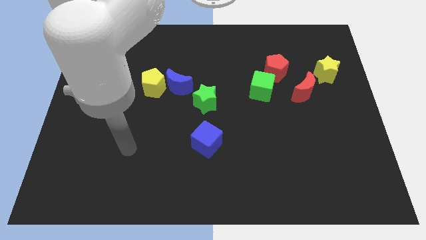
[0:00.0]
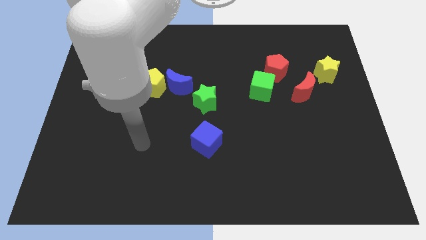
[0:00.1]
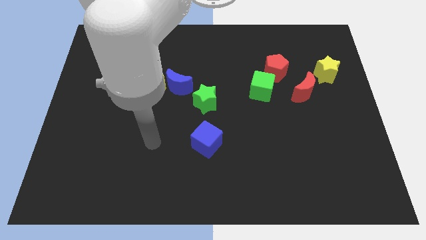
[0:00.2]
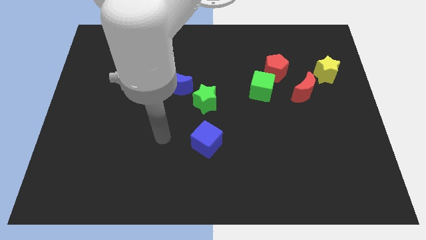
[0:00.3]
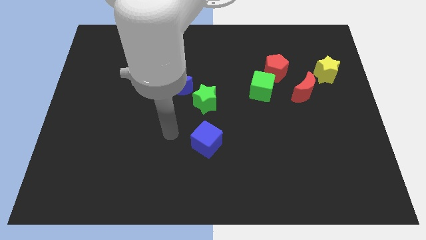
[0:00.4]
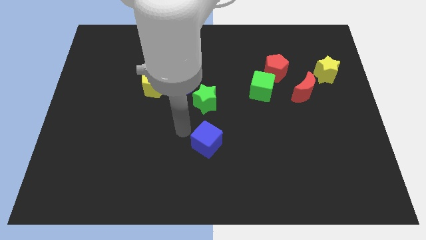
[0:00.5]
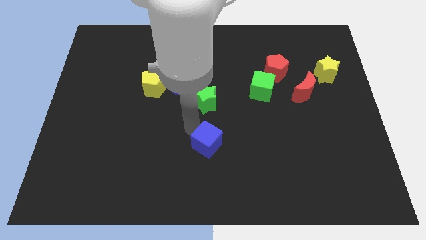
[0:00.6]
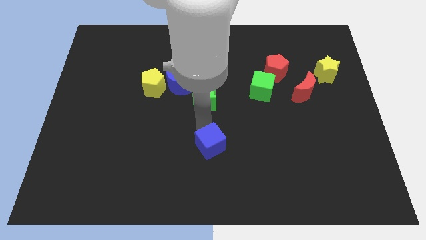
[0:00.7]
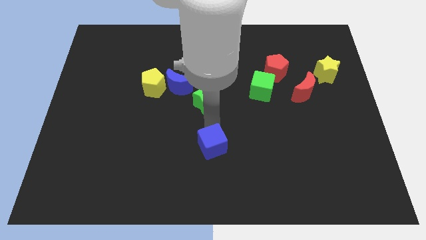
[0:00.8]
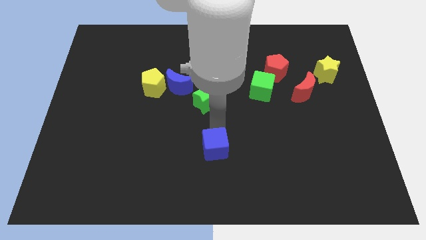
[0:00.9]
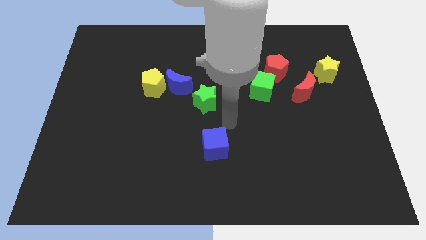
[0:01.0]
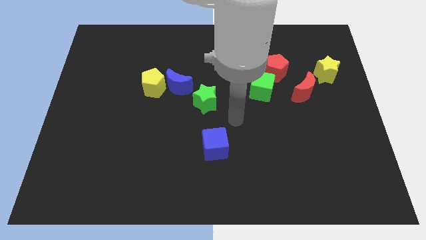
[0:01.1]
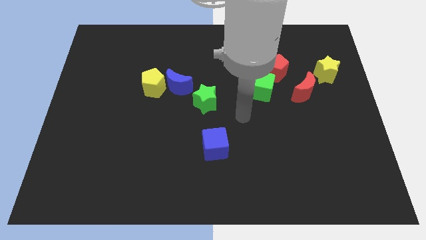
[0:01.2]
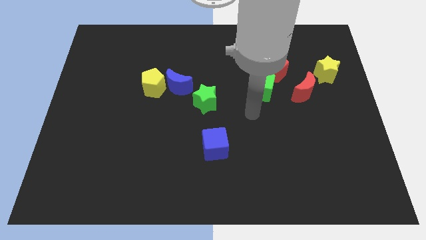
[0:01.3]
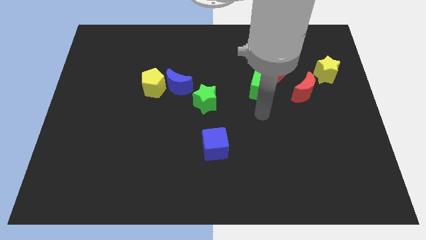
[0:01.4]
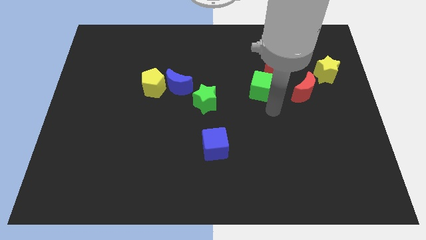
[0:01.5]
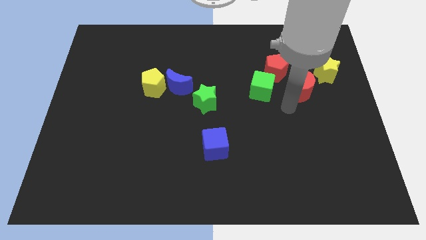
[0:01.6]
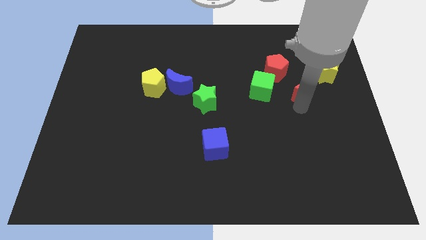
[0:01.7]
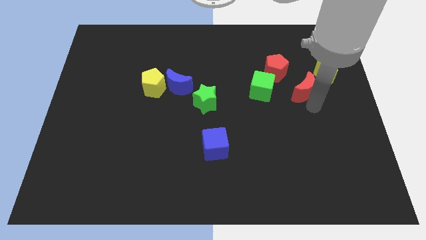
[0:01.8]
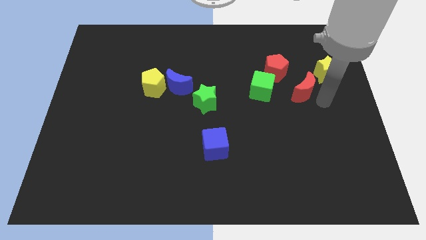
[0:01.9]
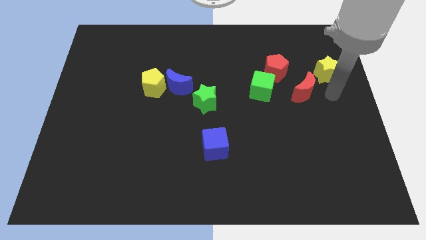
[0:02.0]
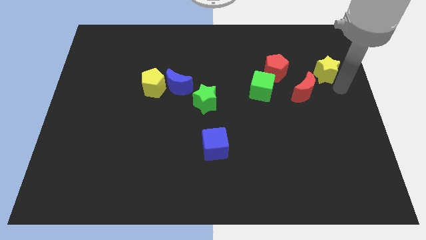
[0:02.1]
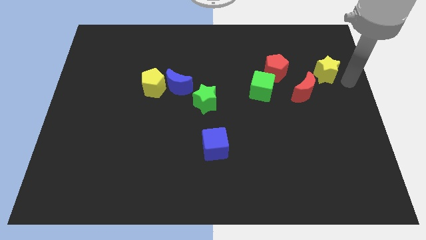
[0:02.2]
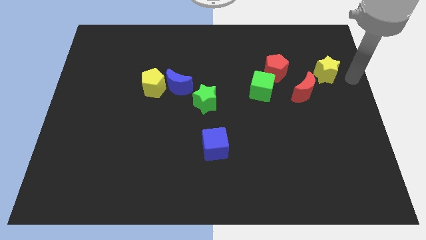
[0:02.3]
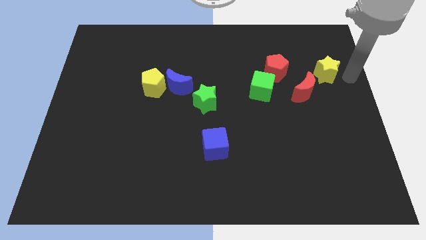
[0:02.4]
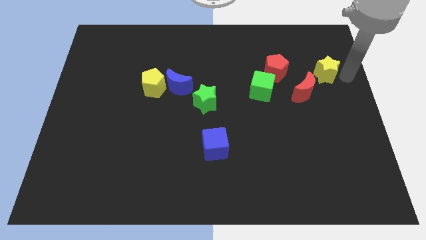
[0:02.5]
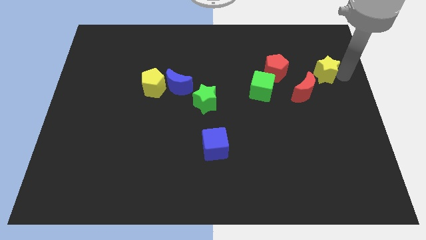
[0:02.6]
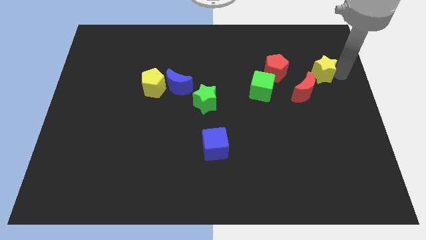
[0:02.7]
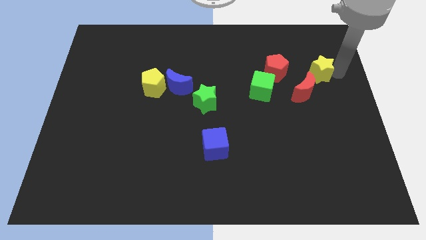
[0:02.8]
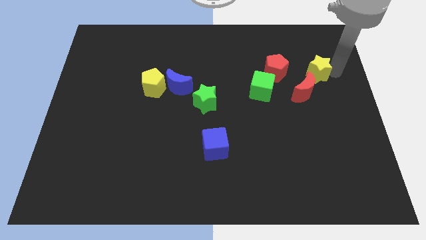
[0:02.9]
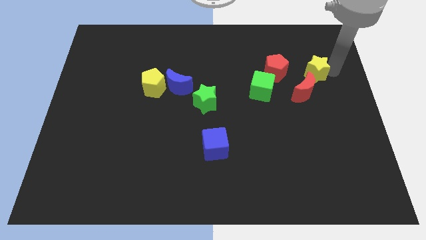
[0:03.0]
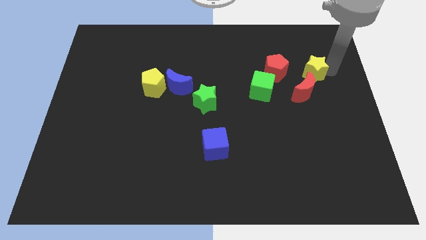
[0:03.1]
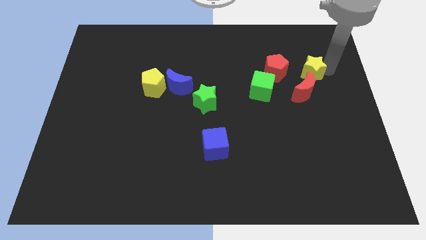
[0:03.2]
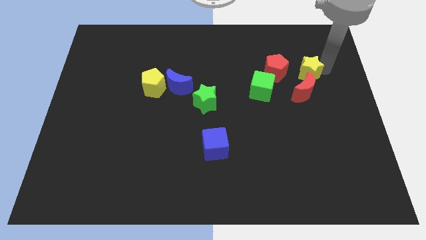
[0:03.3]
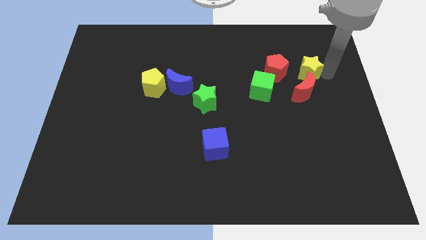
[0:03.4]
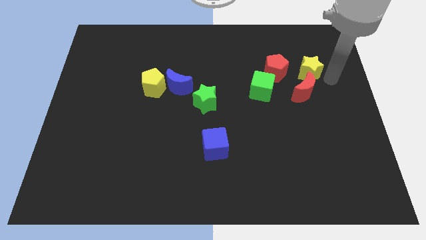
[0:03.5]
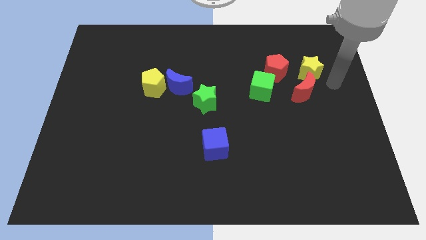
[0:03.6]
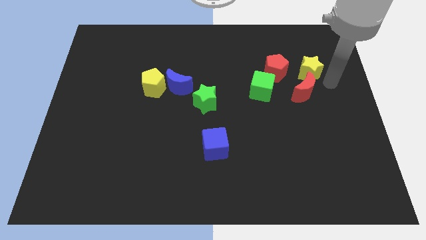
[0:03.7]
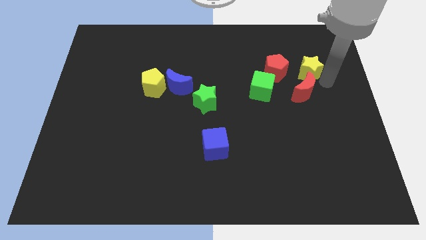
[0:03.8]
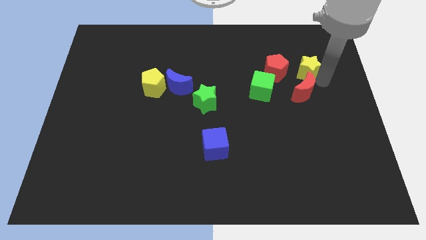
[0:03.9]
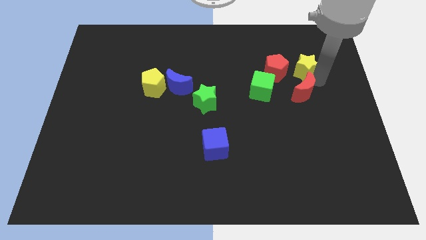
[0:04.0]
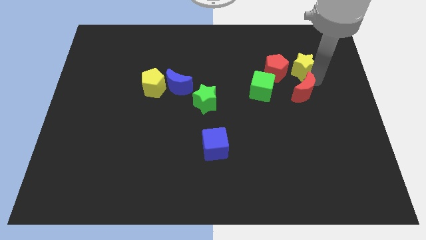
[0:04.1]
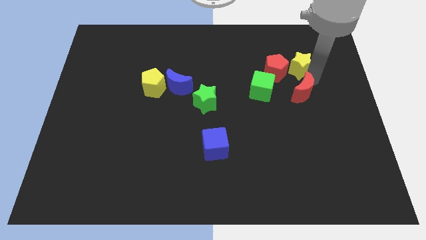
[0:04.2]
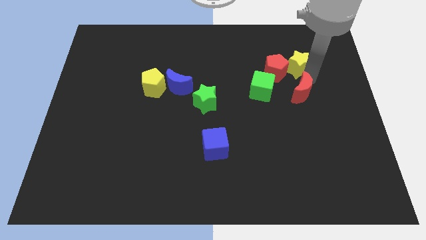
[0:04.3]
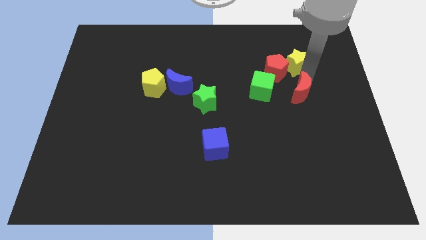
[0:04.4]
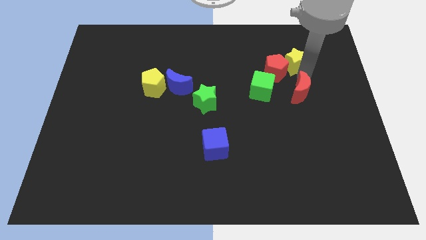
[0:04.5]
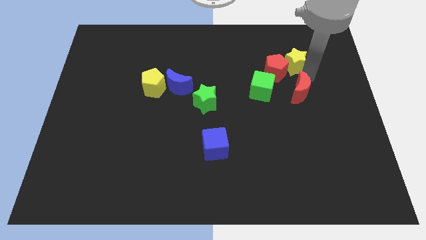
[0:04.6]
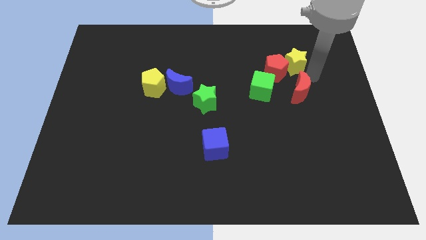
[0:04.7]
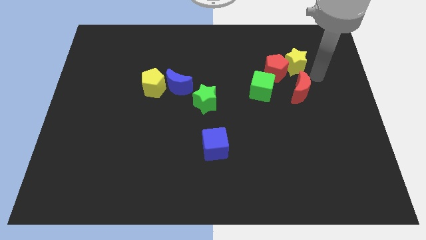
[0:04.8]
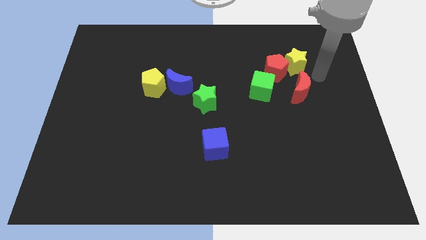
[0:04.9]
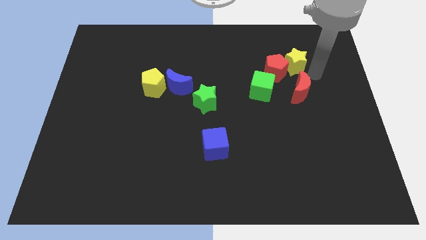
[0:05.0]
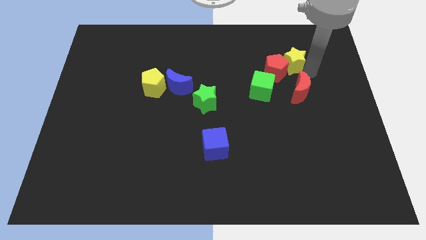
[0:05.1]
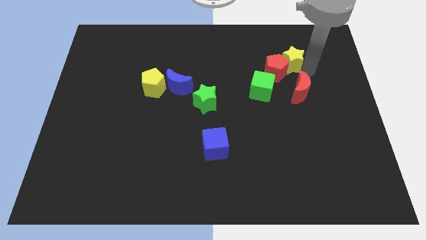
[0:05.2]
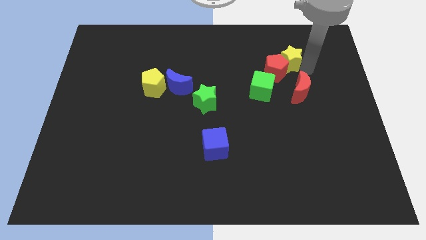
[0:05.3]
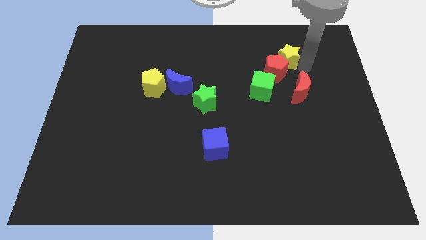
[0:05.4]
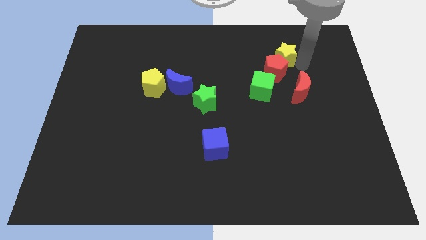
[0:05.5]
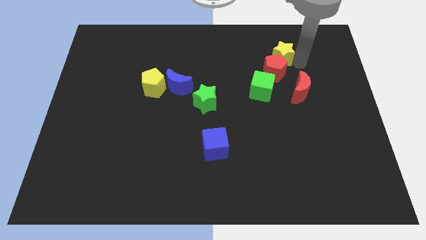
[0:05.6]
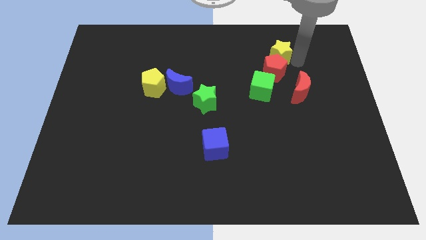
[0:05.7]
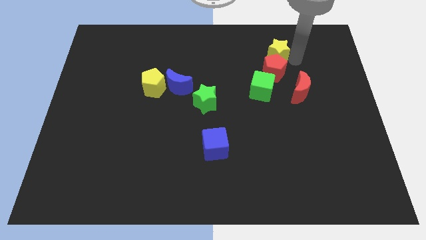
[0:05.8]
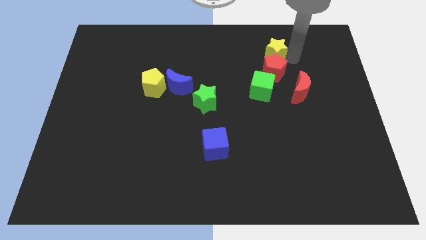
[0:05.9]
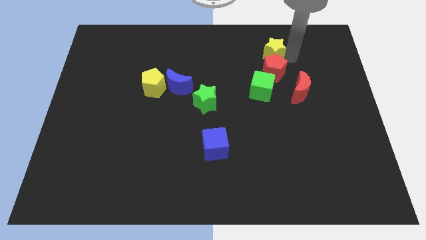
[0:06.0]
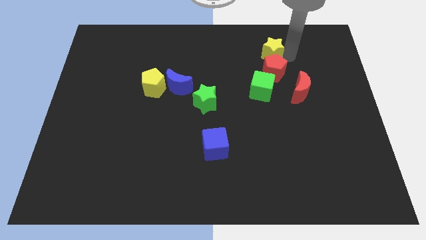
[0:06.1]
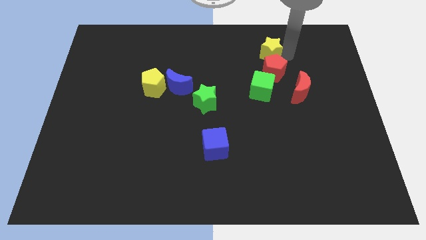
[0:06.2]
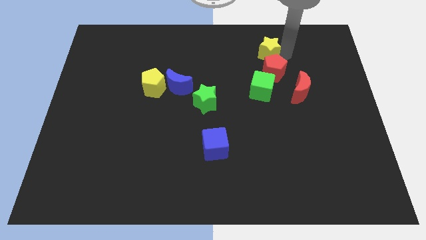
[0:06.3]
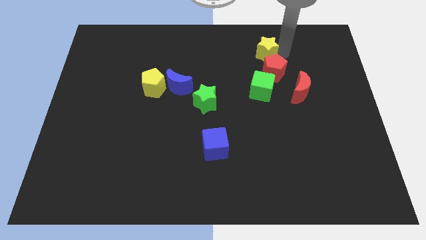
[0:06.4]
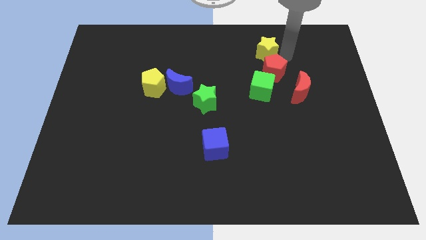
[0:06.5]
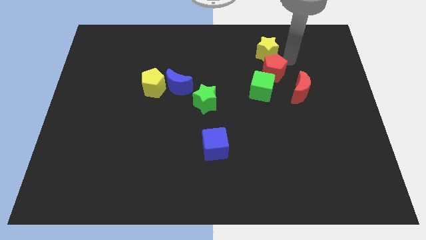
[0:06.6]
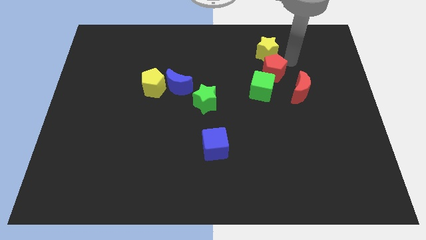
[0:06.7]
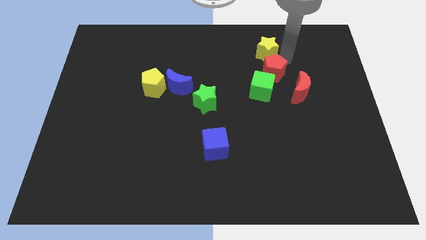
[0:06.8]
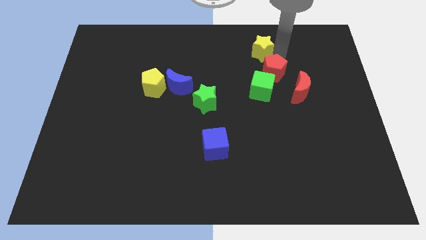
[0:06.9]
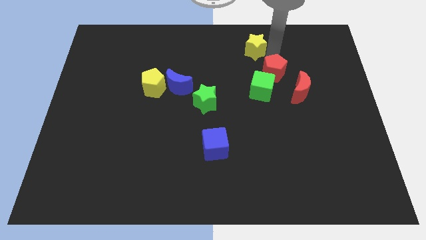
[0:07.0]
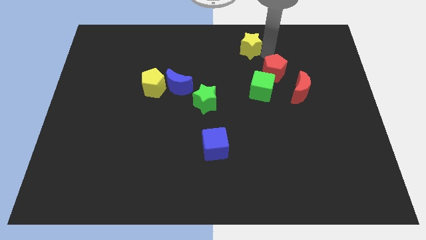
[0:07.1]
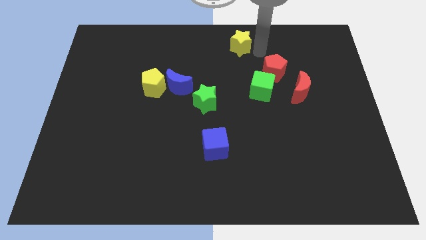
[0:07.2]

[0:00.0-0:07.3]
slide the yellow star to the top side
